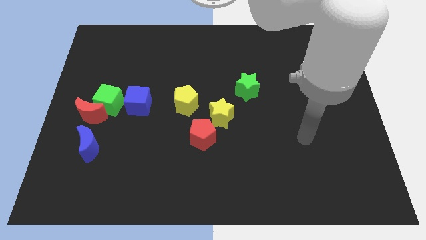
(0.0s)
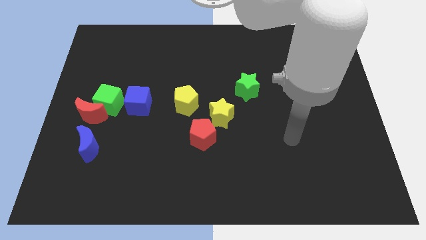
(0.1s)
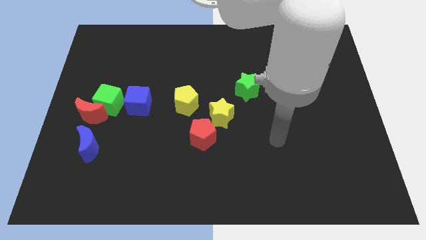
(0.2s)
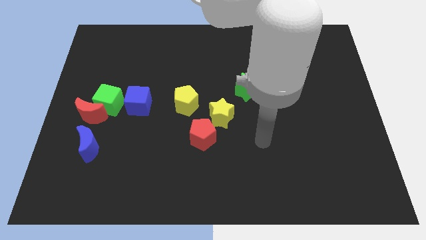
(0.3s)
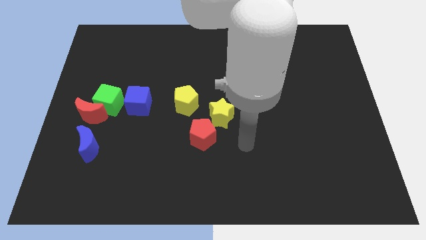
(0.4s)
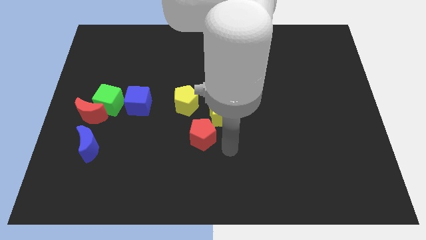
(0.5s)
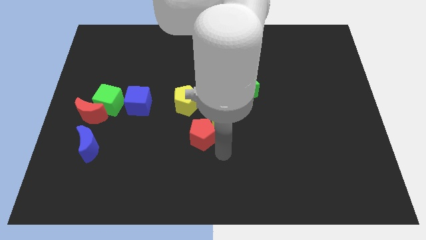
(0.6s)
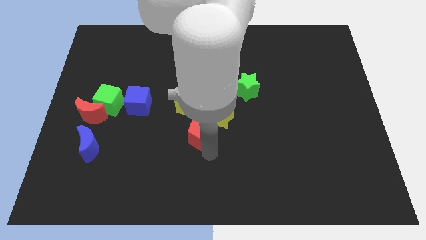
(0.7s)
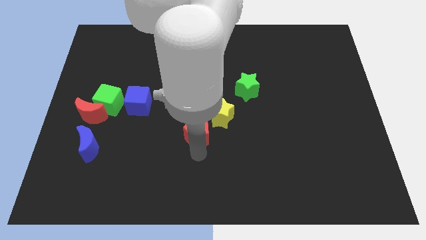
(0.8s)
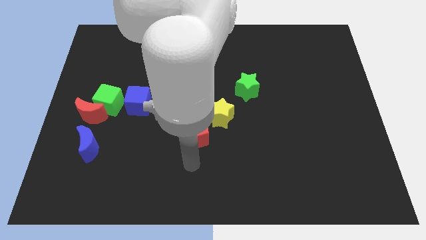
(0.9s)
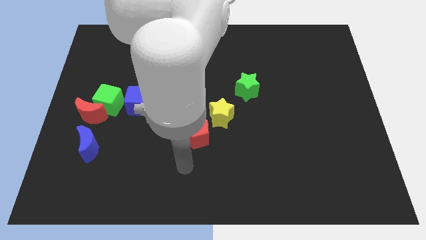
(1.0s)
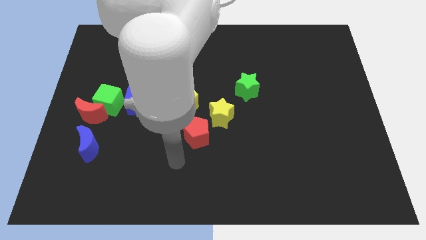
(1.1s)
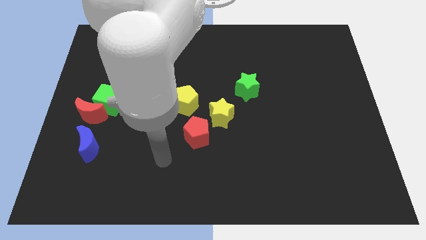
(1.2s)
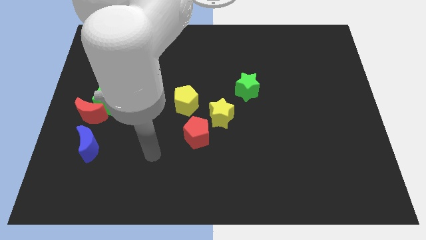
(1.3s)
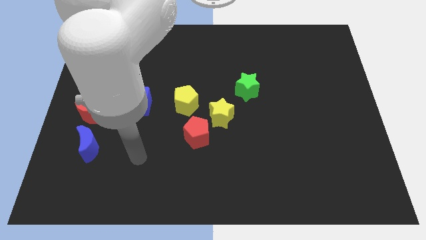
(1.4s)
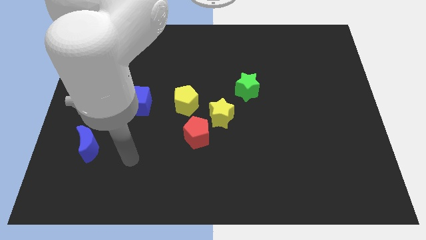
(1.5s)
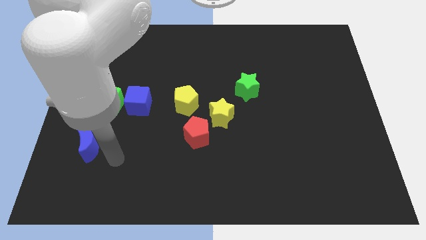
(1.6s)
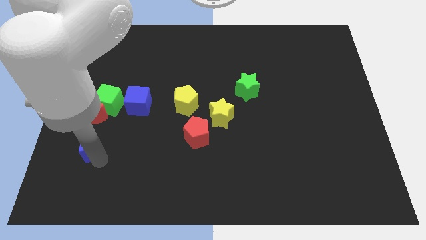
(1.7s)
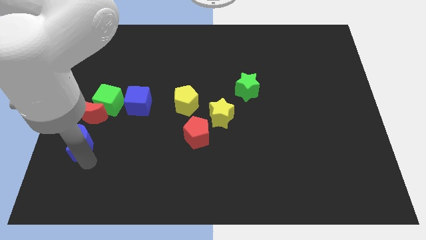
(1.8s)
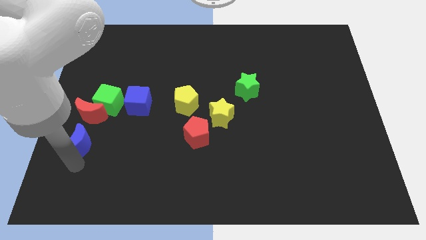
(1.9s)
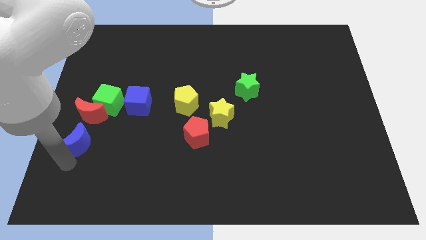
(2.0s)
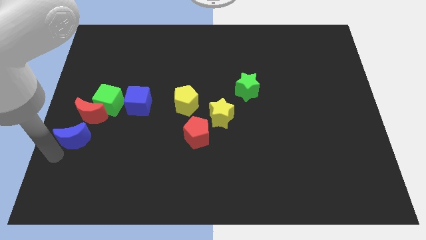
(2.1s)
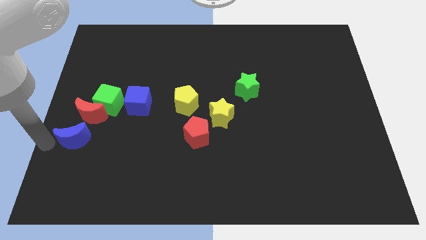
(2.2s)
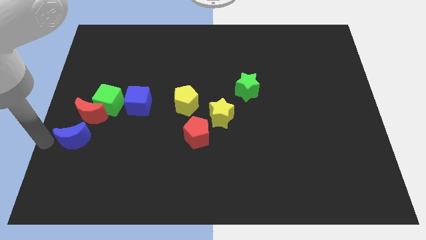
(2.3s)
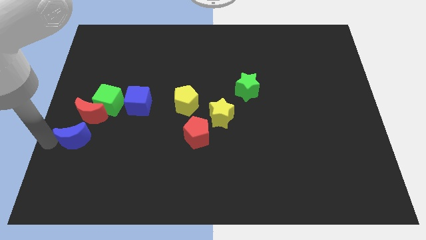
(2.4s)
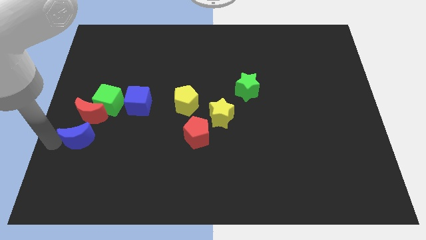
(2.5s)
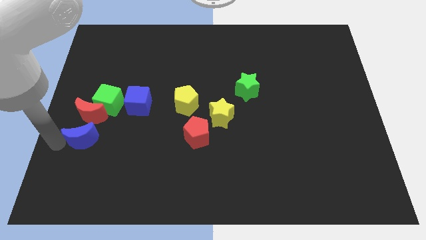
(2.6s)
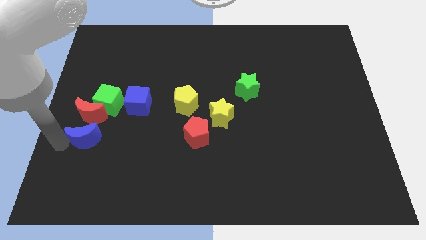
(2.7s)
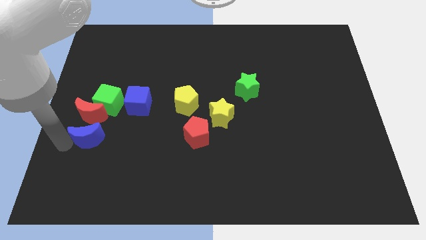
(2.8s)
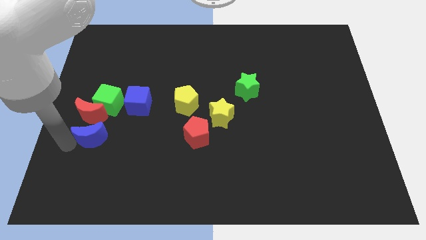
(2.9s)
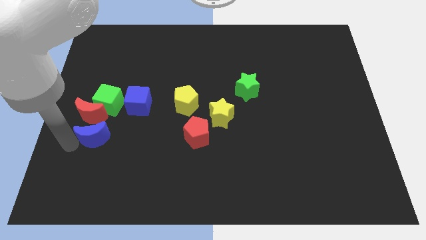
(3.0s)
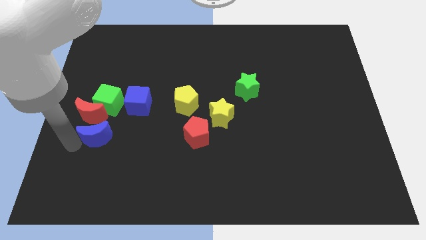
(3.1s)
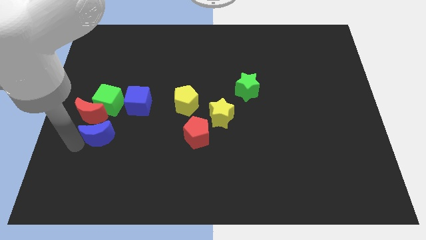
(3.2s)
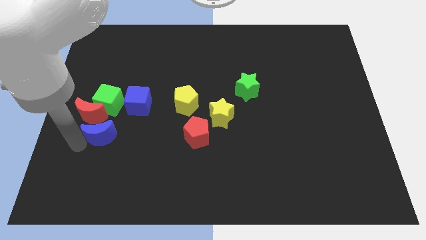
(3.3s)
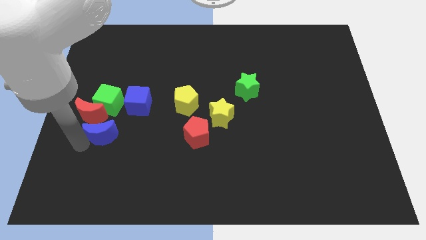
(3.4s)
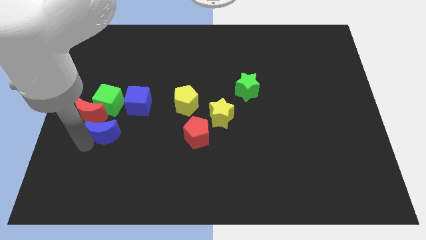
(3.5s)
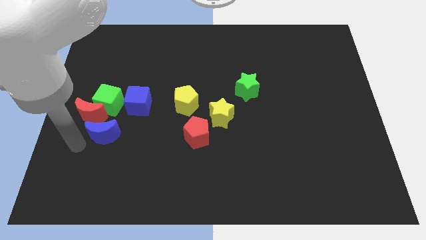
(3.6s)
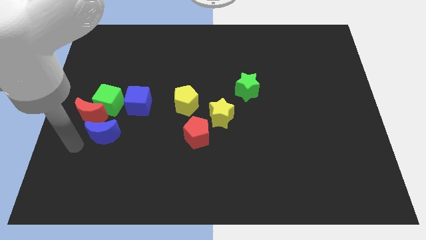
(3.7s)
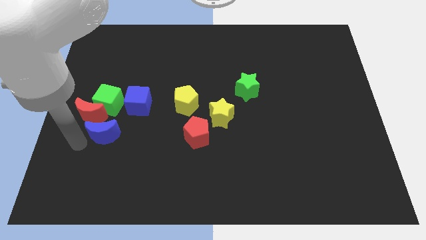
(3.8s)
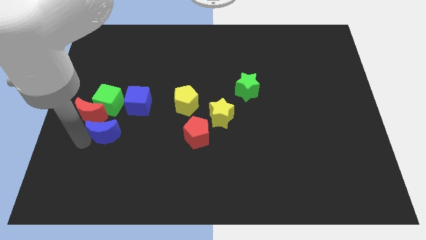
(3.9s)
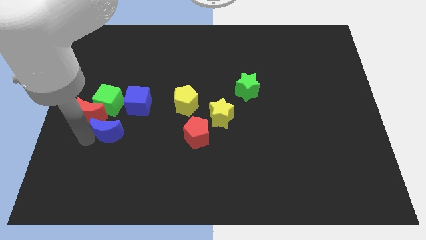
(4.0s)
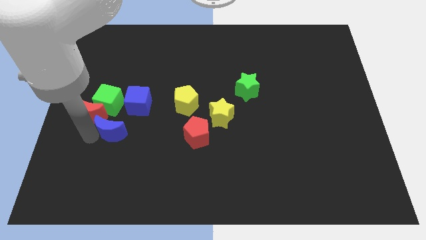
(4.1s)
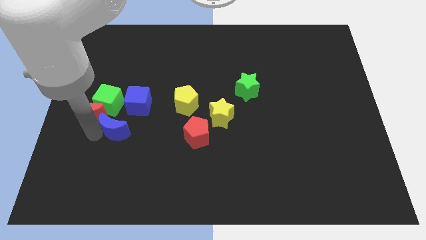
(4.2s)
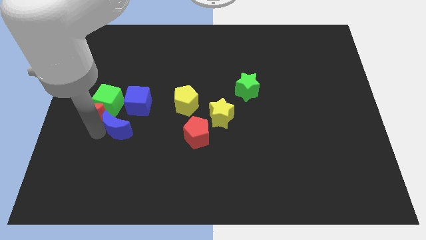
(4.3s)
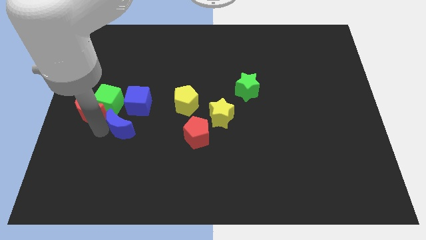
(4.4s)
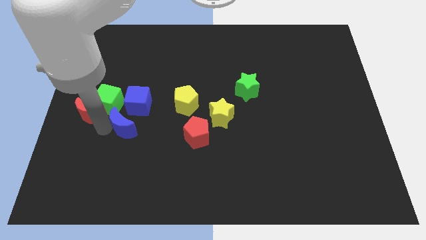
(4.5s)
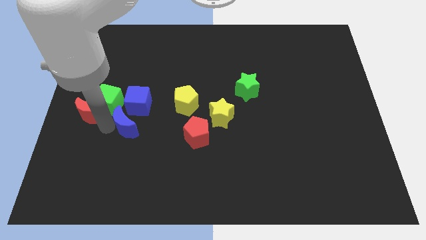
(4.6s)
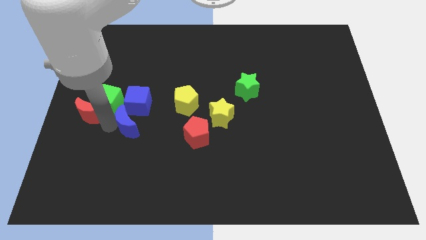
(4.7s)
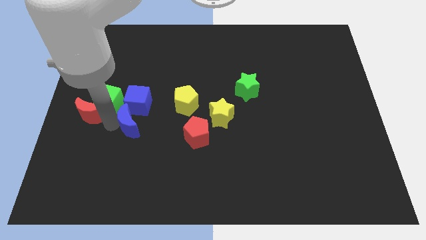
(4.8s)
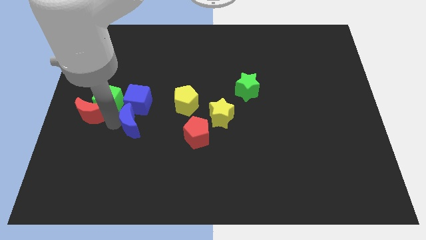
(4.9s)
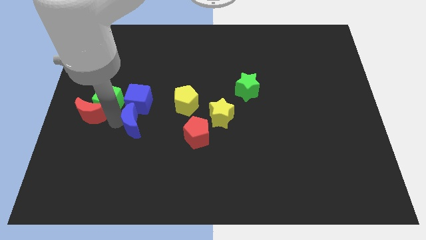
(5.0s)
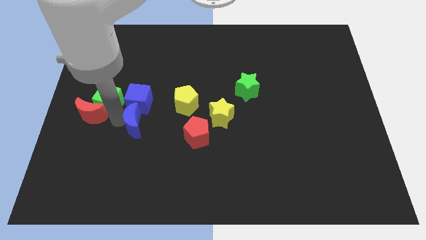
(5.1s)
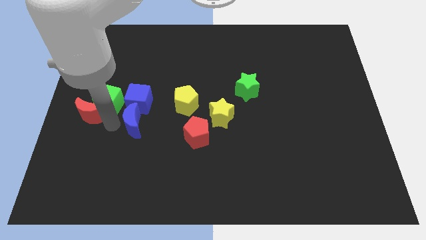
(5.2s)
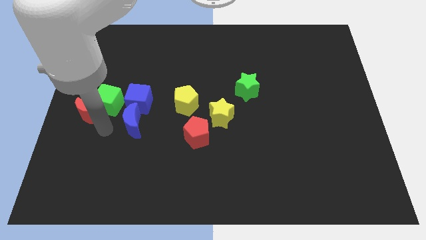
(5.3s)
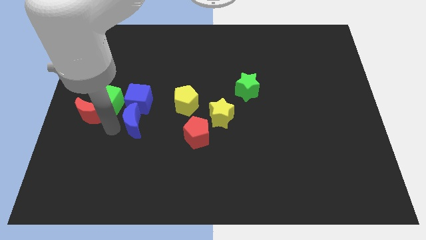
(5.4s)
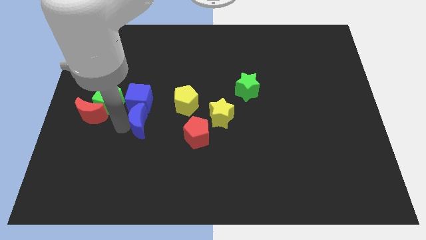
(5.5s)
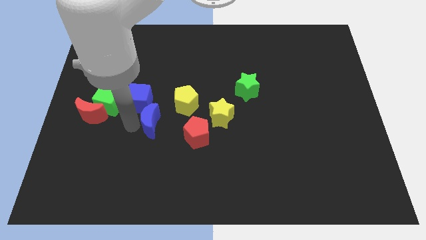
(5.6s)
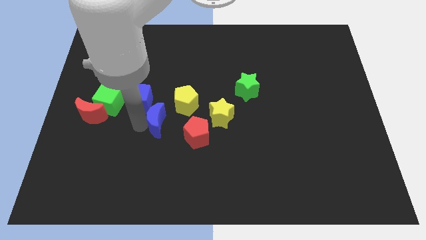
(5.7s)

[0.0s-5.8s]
slide the blue moon to the left of the yellow star

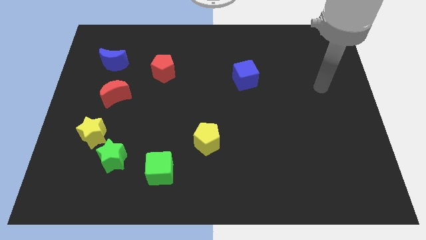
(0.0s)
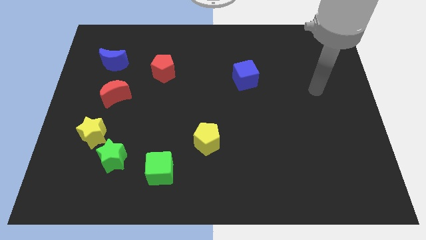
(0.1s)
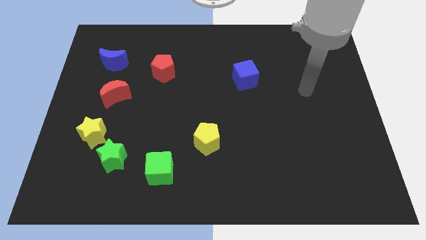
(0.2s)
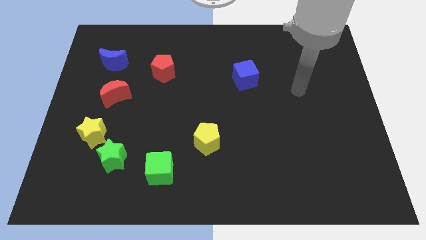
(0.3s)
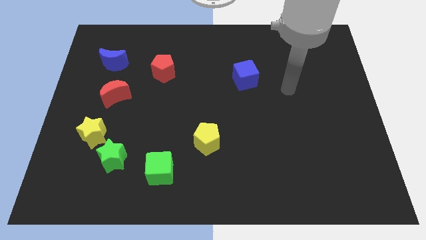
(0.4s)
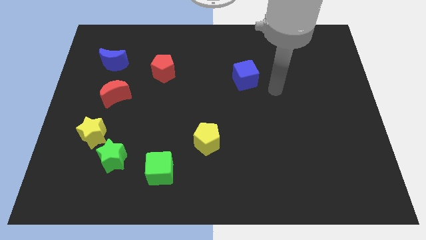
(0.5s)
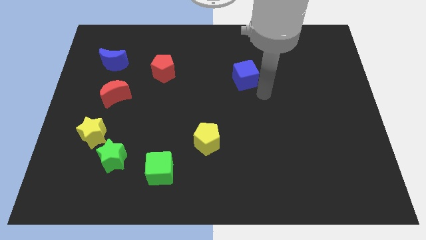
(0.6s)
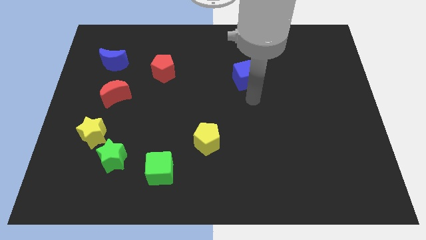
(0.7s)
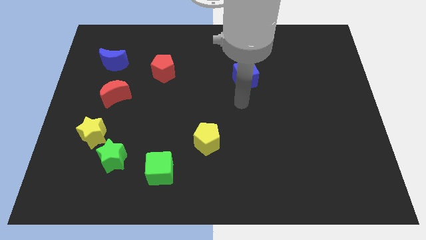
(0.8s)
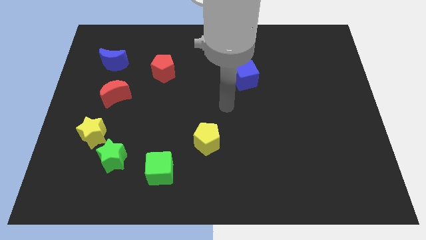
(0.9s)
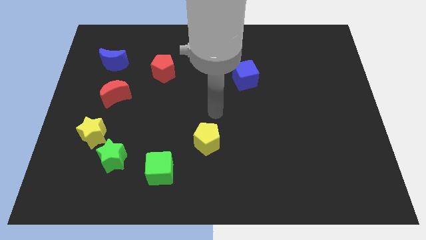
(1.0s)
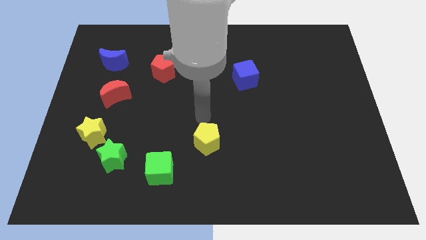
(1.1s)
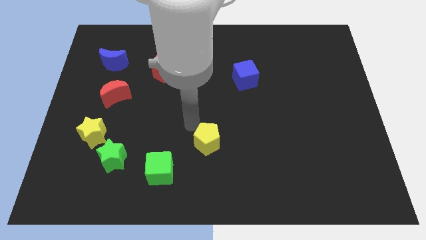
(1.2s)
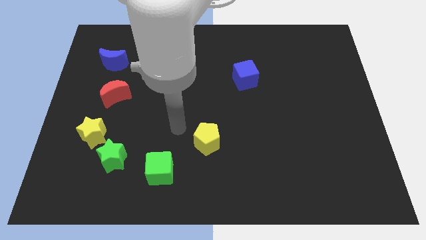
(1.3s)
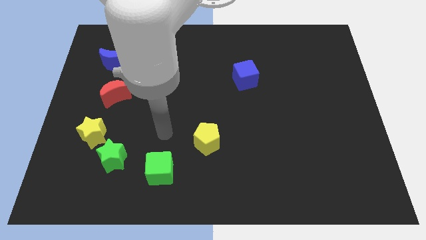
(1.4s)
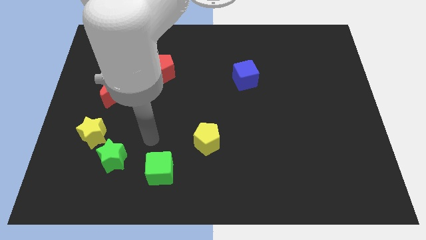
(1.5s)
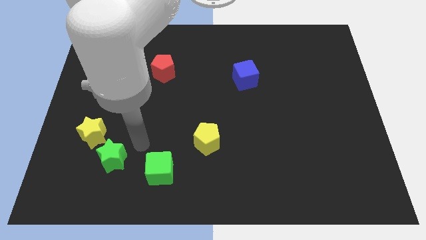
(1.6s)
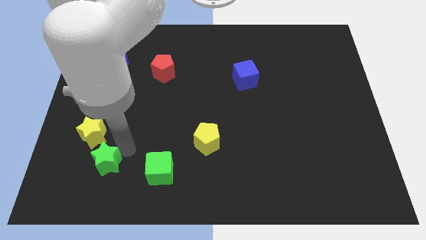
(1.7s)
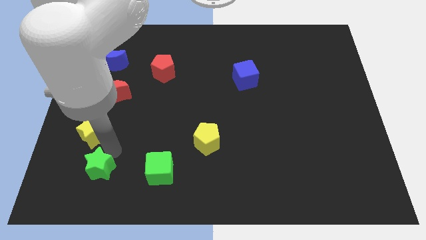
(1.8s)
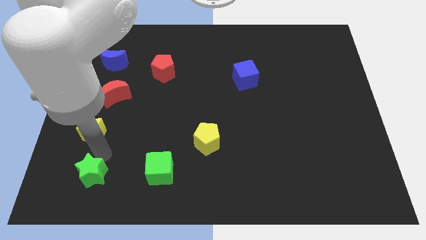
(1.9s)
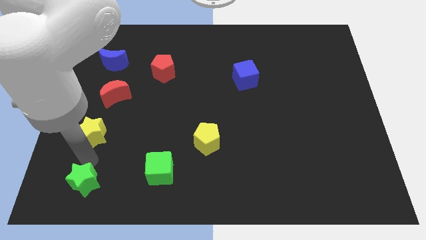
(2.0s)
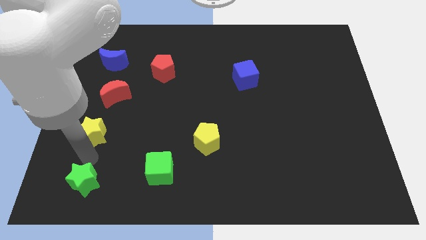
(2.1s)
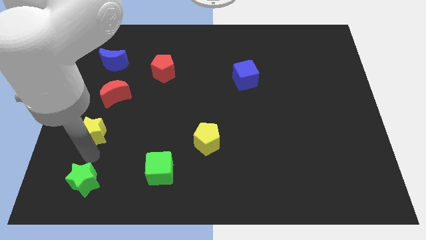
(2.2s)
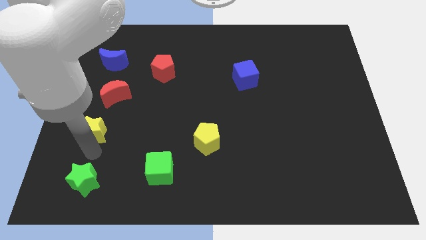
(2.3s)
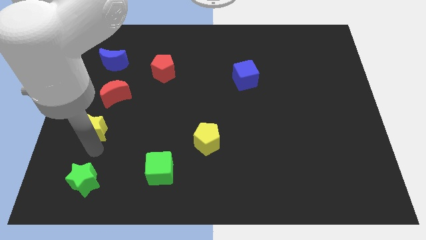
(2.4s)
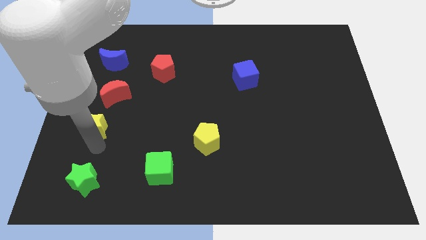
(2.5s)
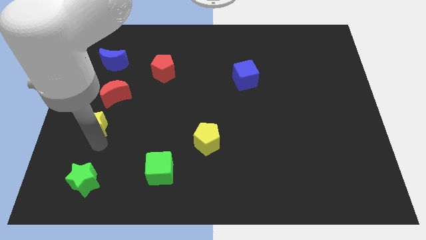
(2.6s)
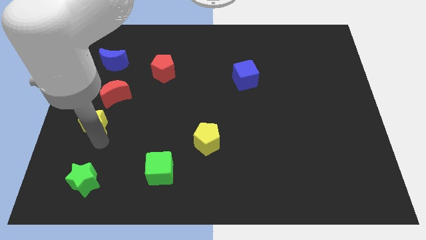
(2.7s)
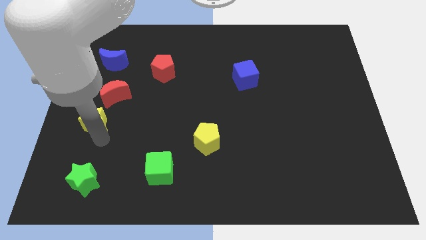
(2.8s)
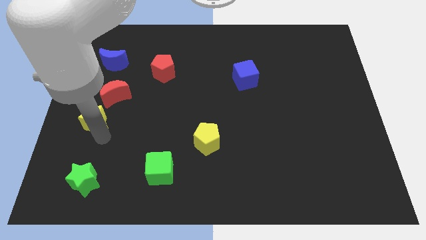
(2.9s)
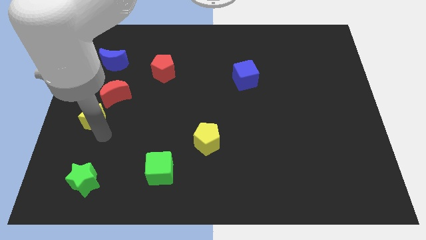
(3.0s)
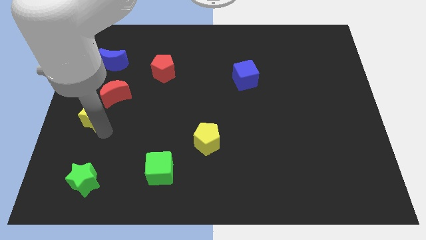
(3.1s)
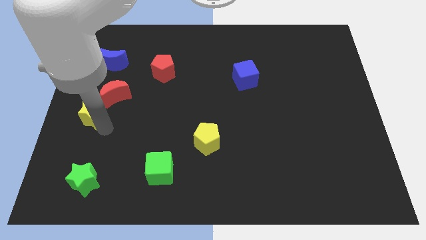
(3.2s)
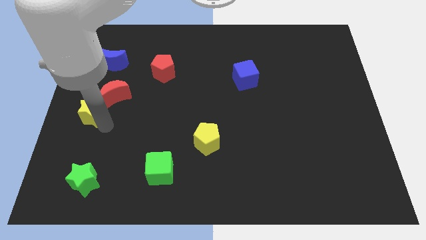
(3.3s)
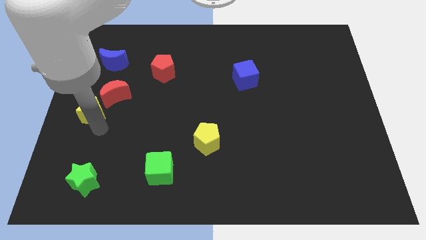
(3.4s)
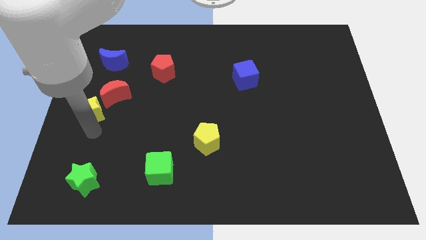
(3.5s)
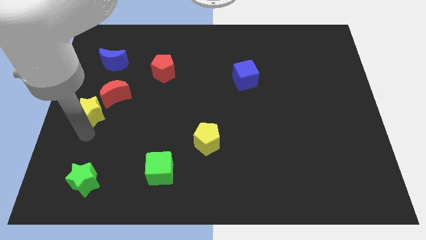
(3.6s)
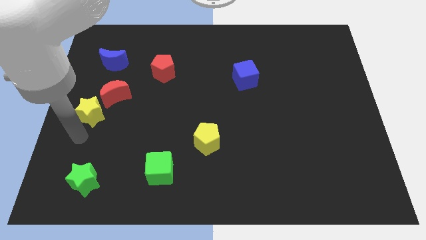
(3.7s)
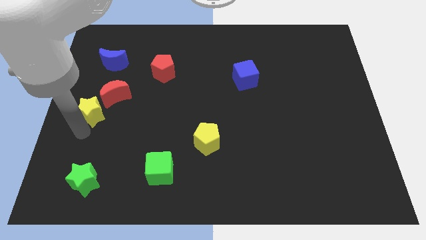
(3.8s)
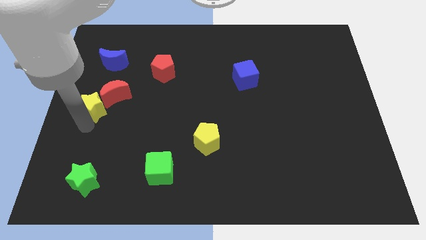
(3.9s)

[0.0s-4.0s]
push the yellow star to the bottom of the blue moon
